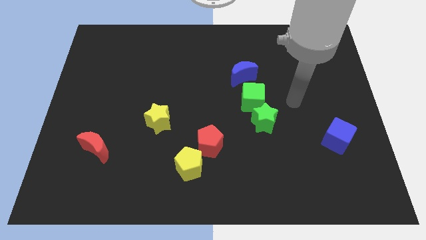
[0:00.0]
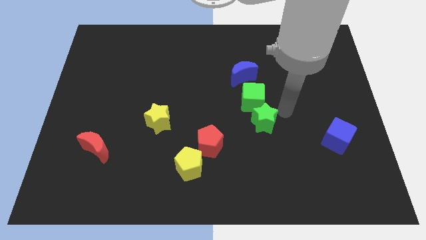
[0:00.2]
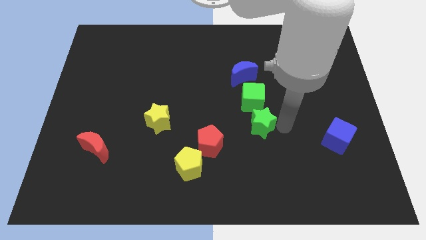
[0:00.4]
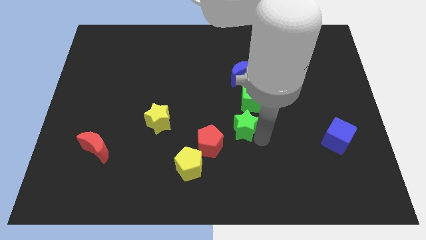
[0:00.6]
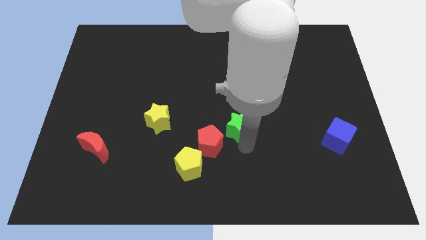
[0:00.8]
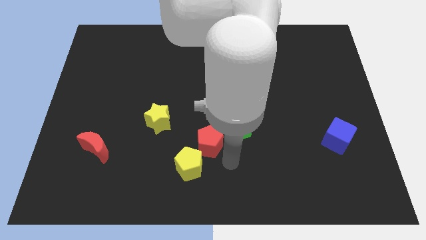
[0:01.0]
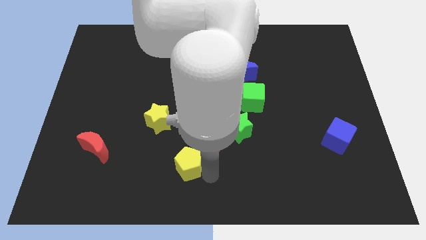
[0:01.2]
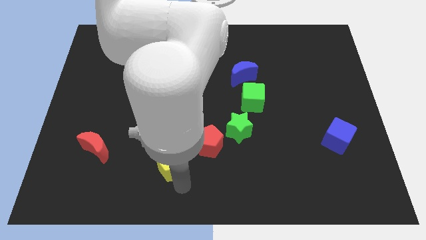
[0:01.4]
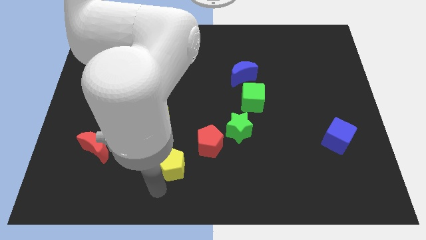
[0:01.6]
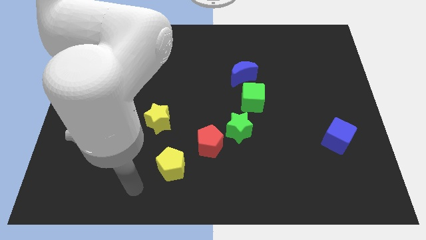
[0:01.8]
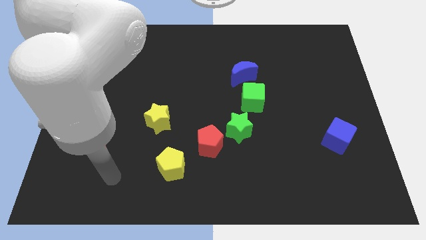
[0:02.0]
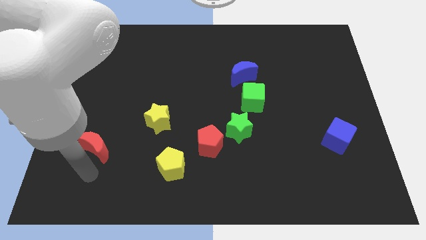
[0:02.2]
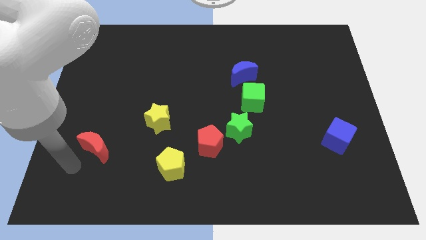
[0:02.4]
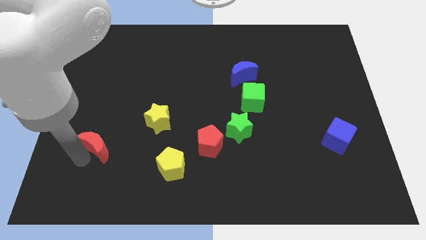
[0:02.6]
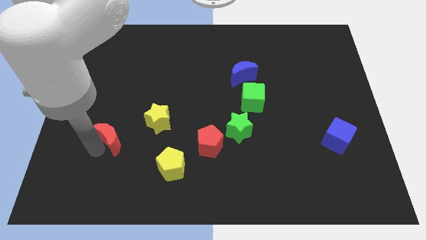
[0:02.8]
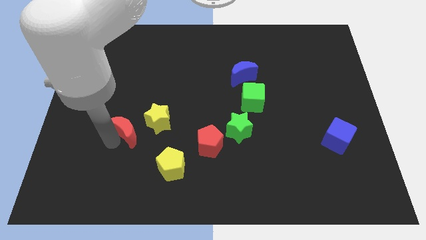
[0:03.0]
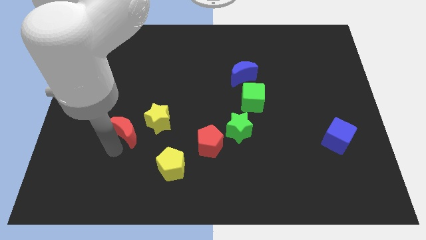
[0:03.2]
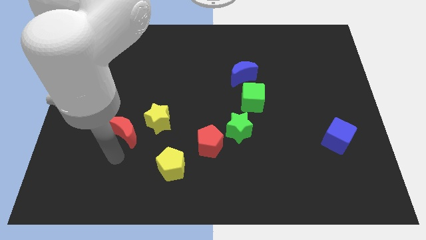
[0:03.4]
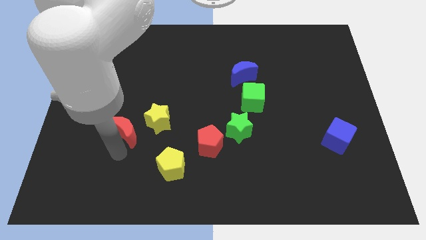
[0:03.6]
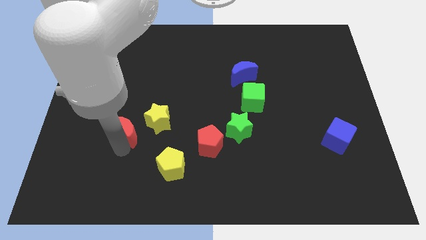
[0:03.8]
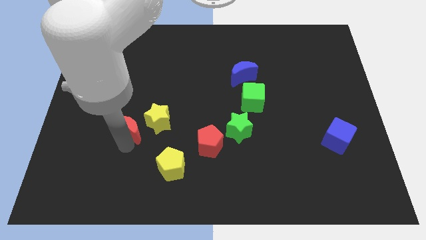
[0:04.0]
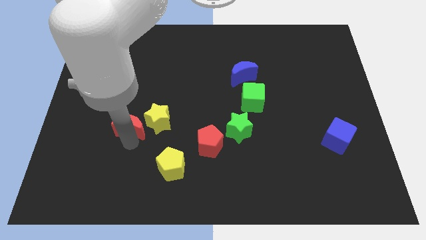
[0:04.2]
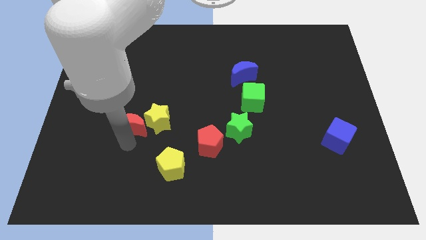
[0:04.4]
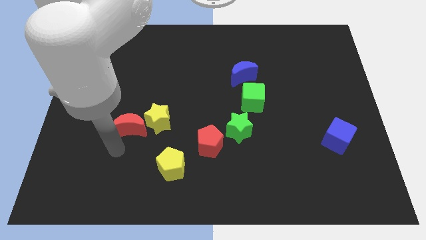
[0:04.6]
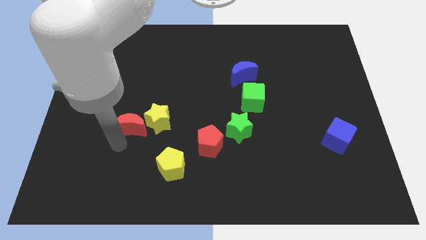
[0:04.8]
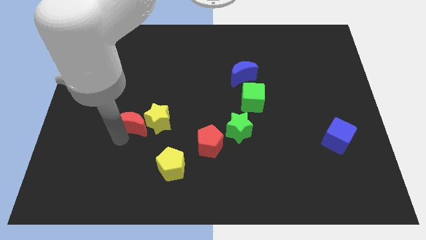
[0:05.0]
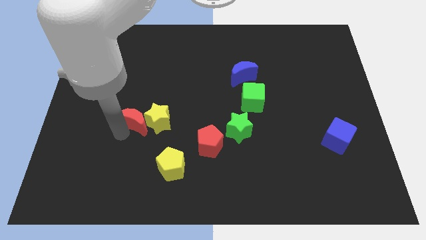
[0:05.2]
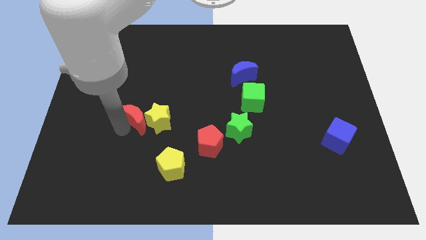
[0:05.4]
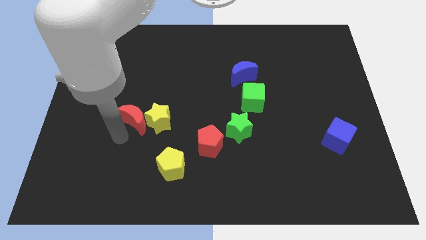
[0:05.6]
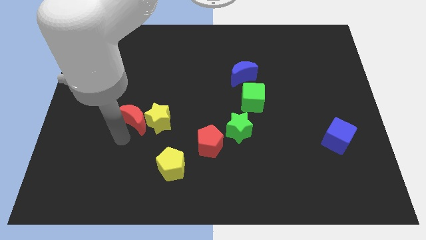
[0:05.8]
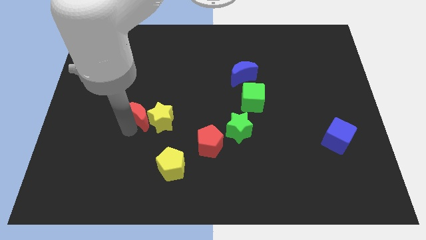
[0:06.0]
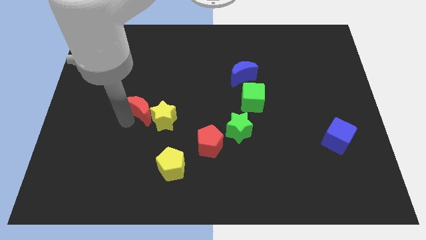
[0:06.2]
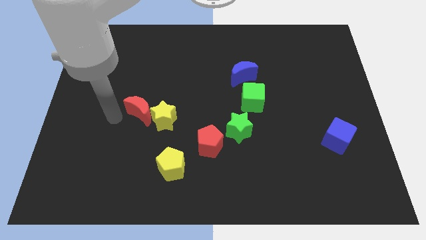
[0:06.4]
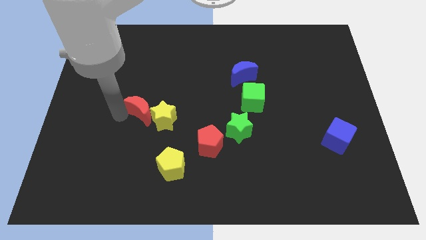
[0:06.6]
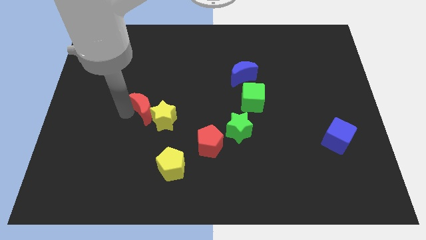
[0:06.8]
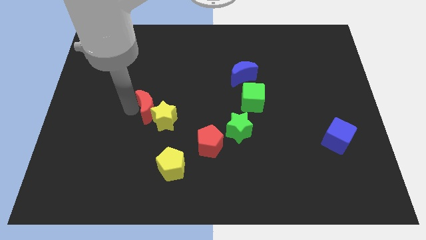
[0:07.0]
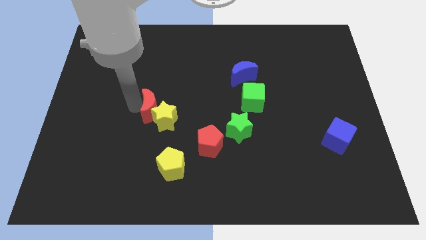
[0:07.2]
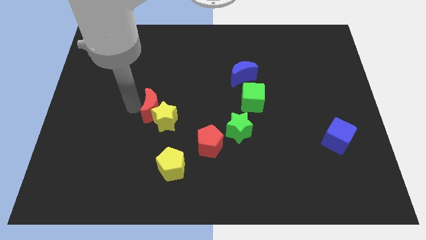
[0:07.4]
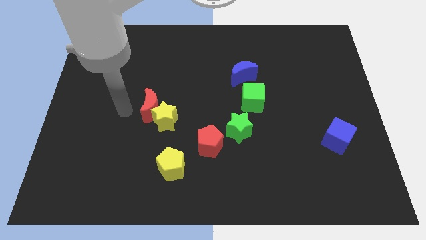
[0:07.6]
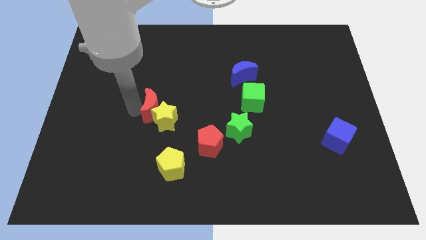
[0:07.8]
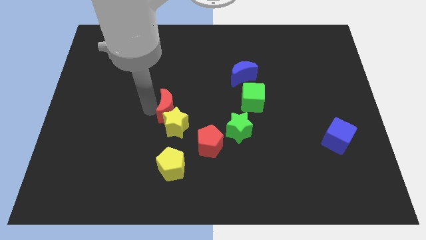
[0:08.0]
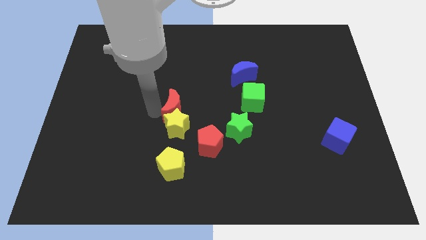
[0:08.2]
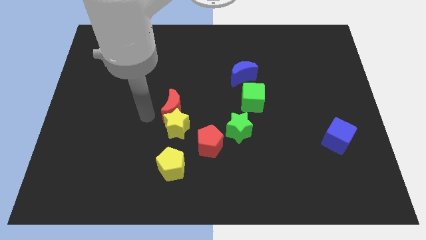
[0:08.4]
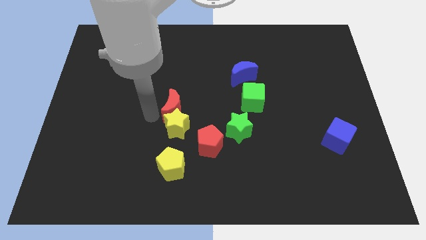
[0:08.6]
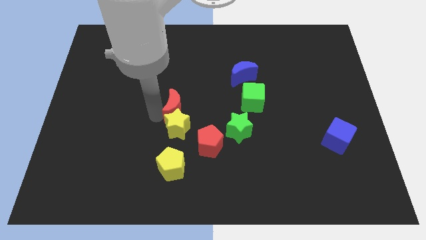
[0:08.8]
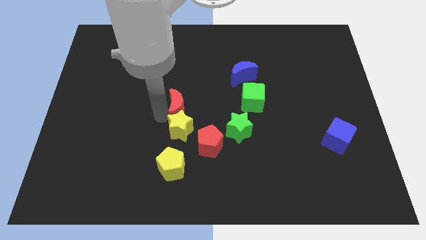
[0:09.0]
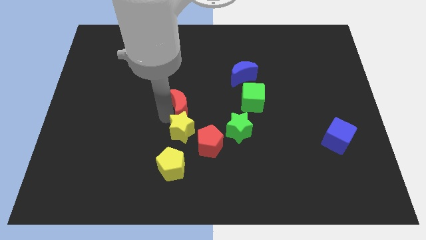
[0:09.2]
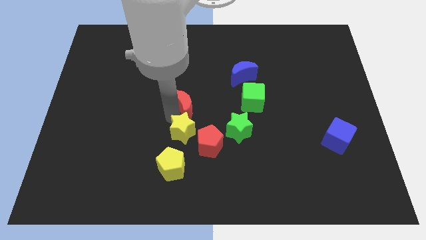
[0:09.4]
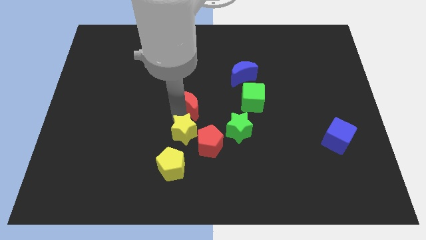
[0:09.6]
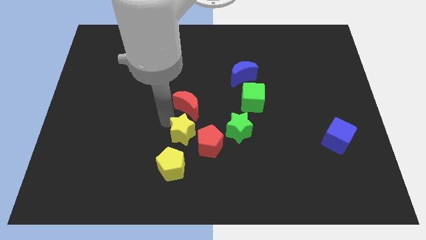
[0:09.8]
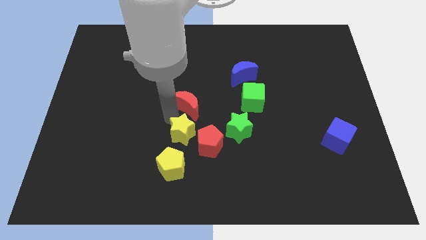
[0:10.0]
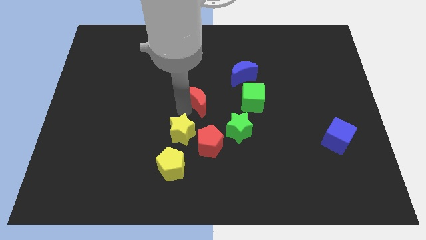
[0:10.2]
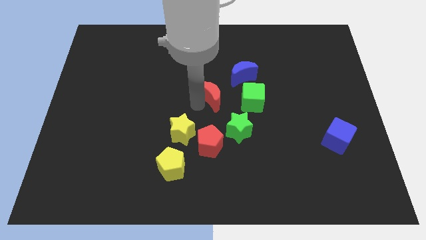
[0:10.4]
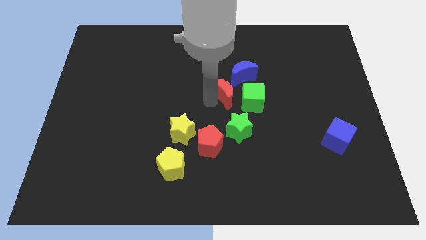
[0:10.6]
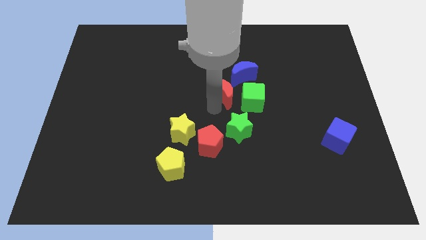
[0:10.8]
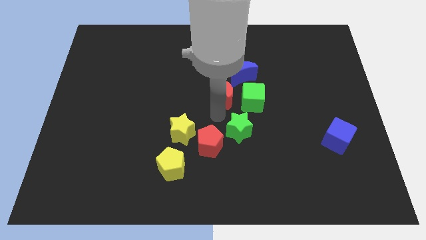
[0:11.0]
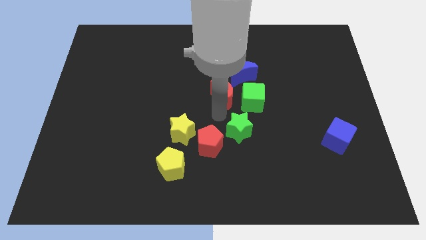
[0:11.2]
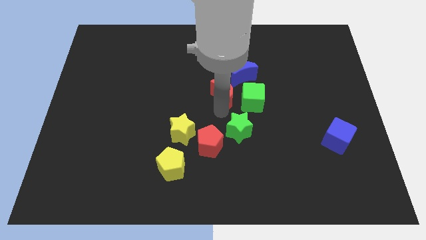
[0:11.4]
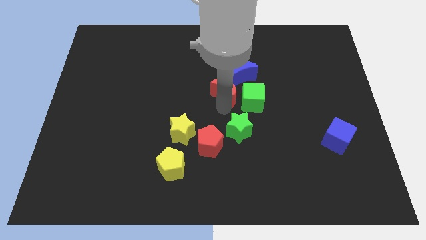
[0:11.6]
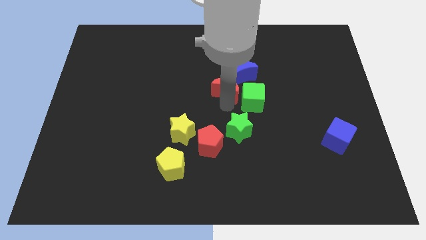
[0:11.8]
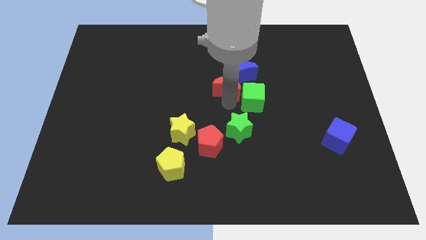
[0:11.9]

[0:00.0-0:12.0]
slide the red moon towards the blue moon

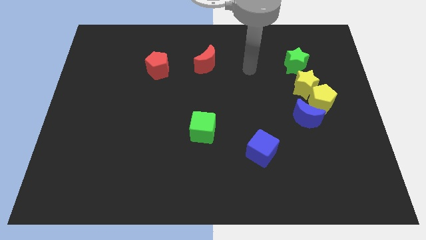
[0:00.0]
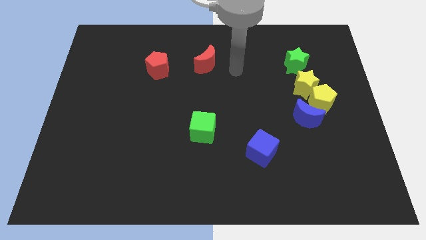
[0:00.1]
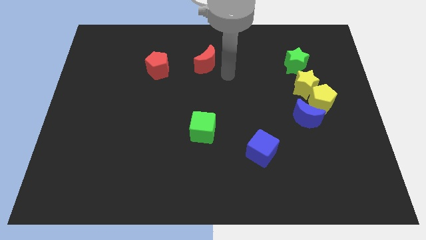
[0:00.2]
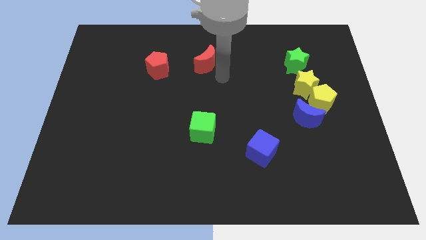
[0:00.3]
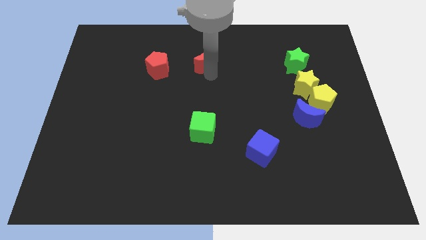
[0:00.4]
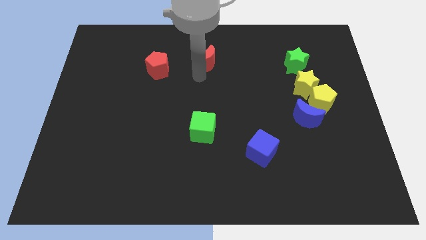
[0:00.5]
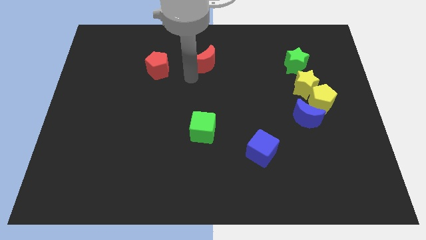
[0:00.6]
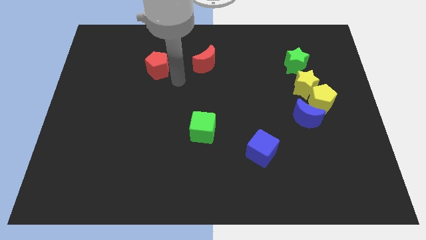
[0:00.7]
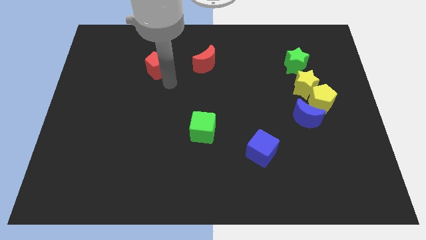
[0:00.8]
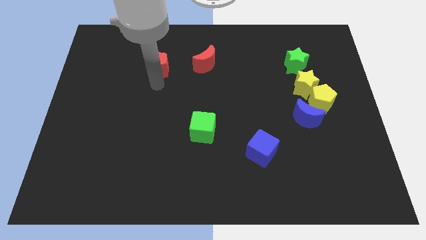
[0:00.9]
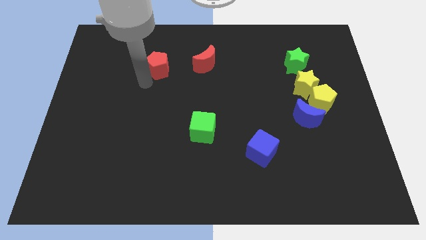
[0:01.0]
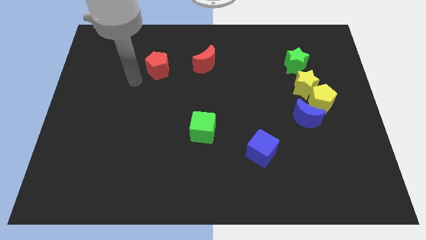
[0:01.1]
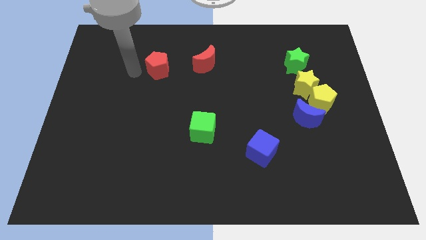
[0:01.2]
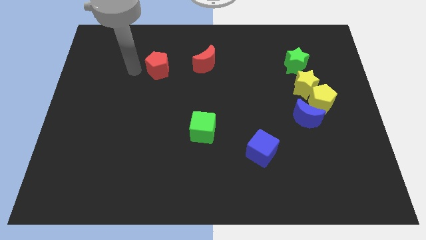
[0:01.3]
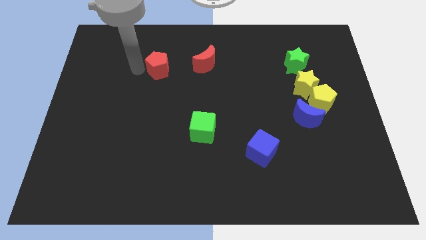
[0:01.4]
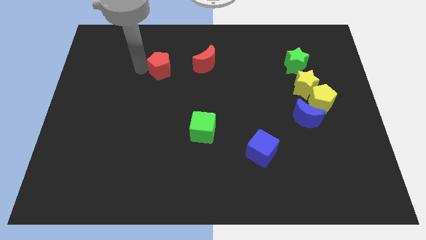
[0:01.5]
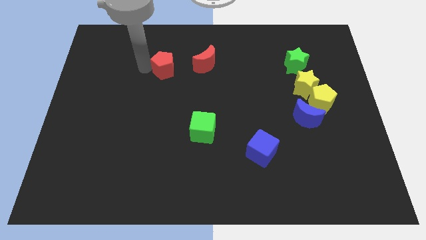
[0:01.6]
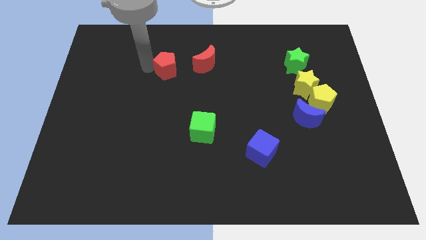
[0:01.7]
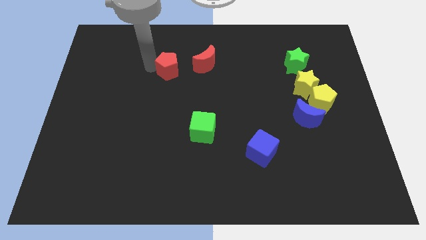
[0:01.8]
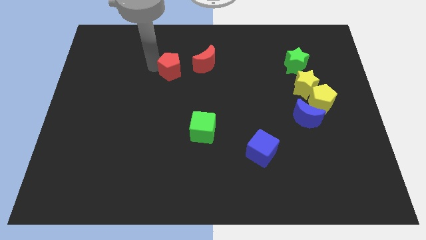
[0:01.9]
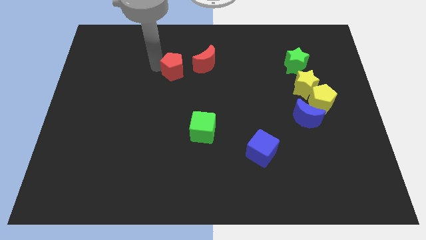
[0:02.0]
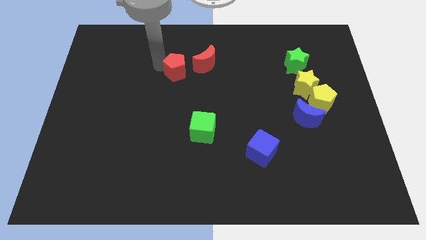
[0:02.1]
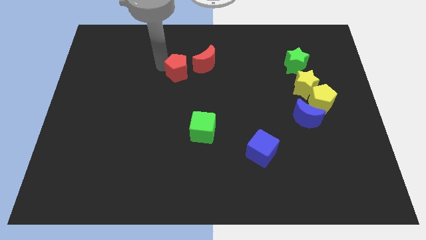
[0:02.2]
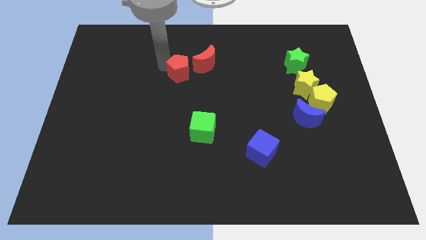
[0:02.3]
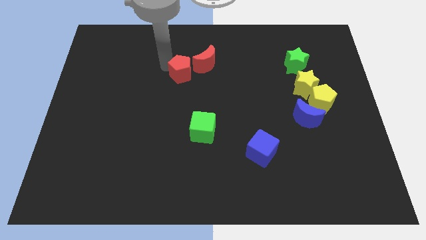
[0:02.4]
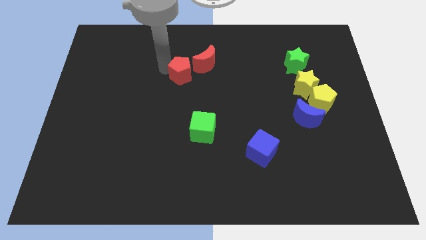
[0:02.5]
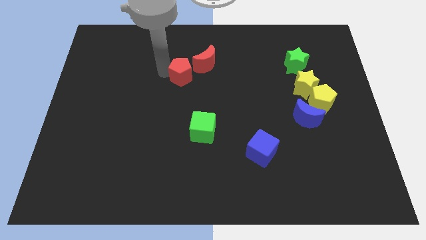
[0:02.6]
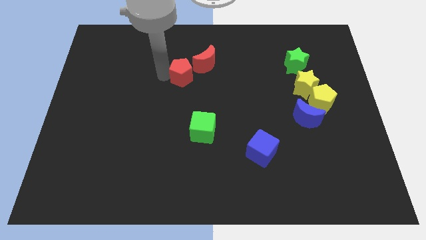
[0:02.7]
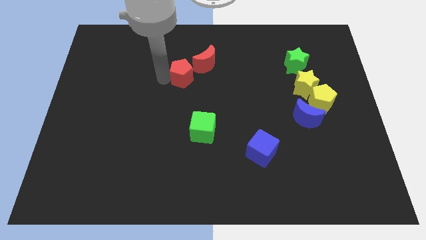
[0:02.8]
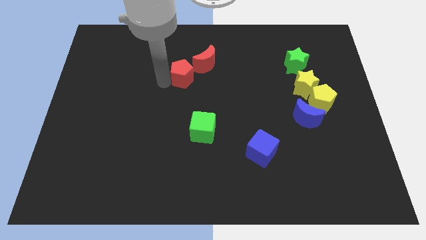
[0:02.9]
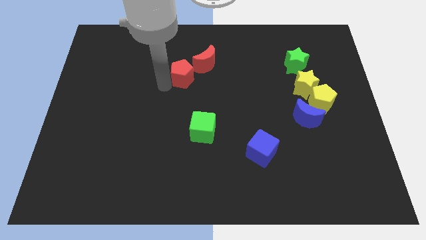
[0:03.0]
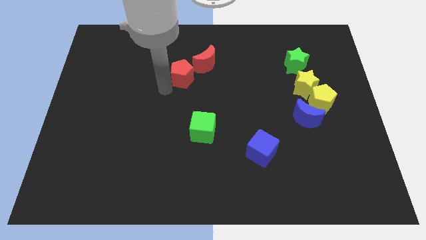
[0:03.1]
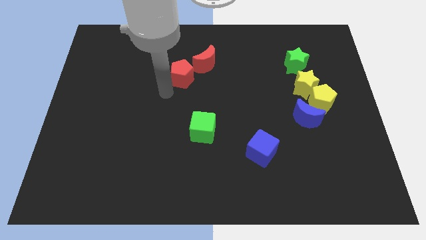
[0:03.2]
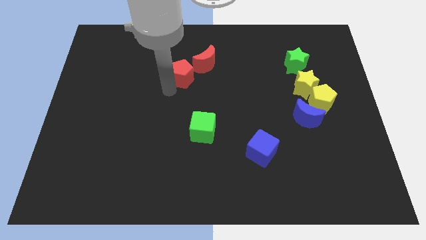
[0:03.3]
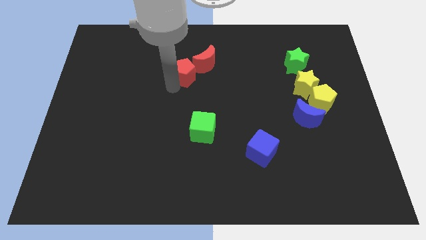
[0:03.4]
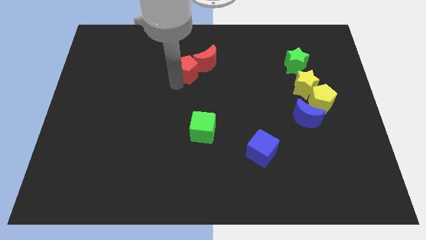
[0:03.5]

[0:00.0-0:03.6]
push the red pentagon towards the red moon
